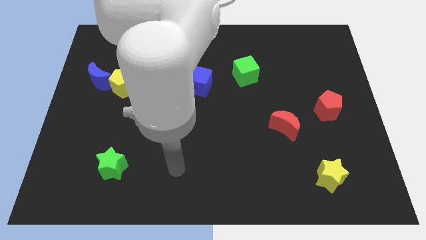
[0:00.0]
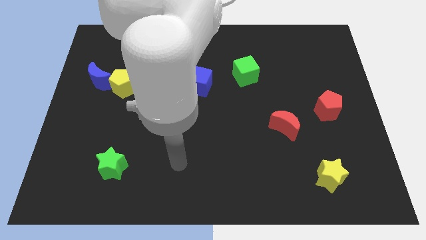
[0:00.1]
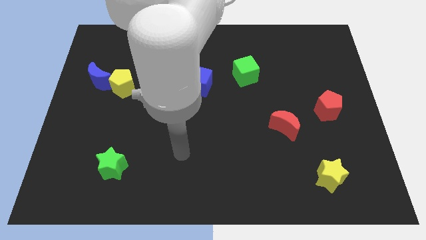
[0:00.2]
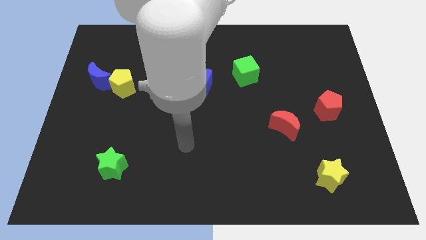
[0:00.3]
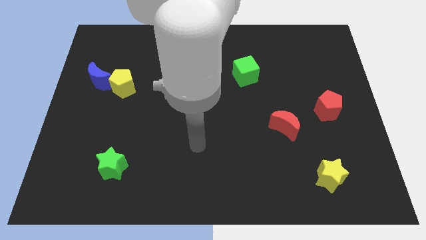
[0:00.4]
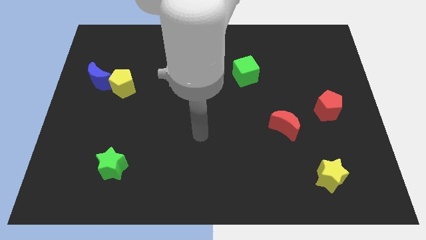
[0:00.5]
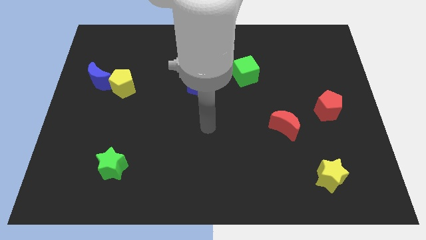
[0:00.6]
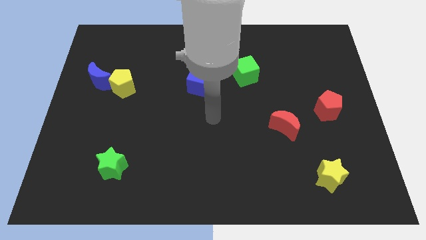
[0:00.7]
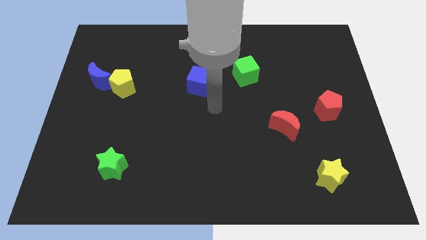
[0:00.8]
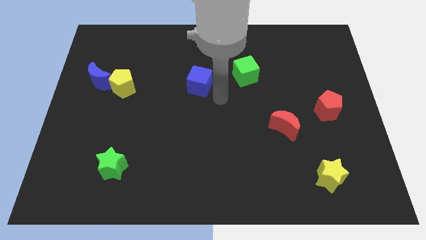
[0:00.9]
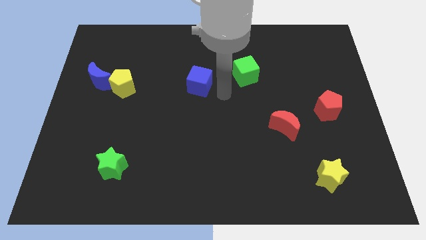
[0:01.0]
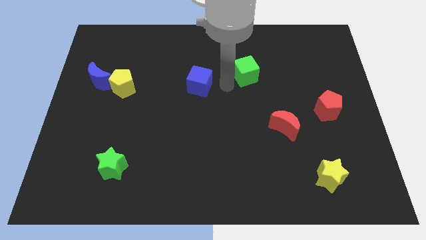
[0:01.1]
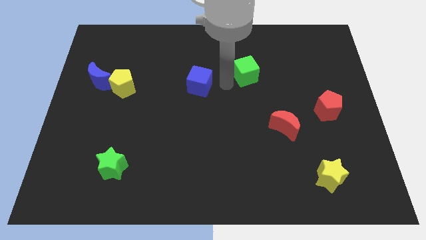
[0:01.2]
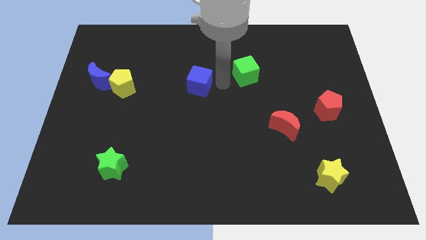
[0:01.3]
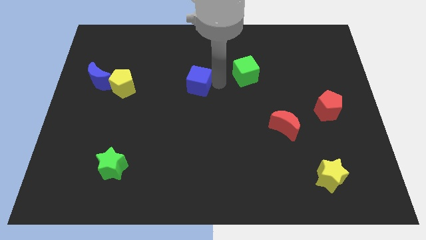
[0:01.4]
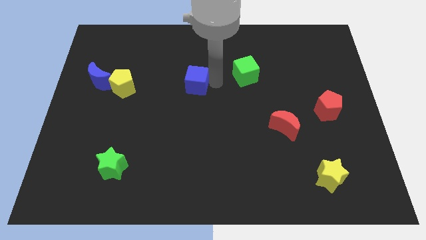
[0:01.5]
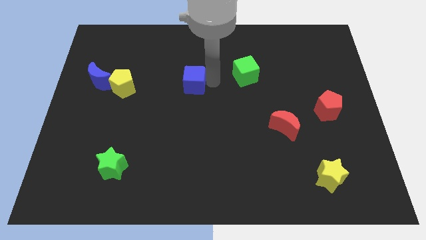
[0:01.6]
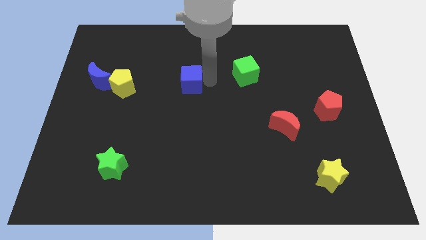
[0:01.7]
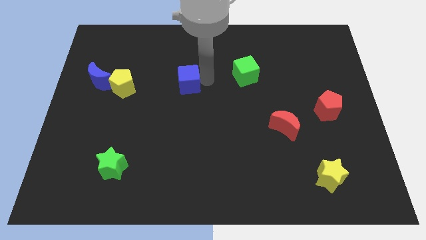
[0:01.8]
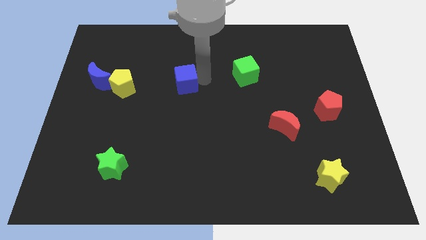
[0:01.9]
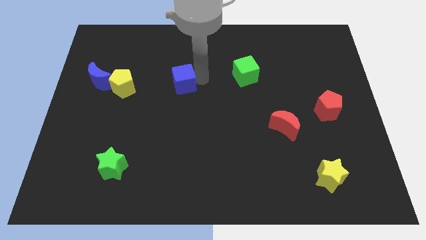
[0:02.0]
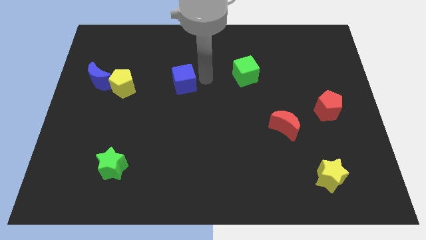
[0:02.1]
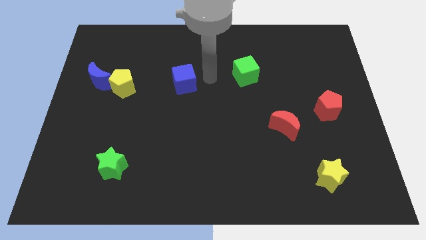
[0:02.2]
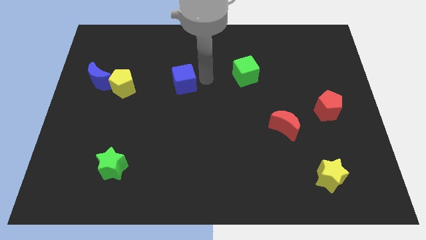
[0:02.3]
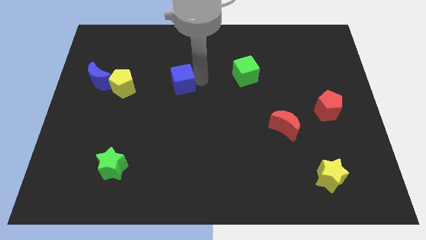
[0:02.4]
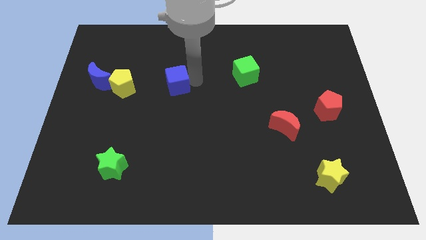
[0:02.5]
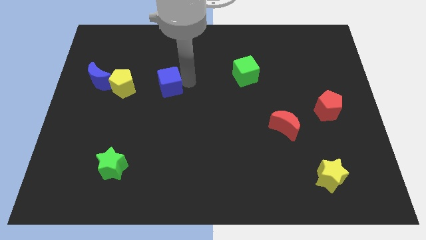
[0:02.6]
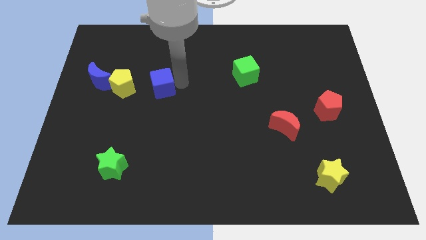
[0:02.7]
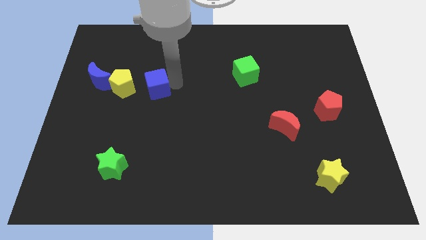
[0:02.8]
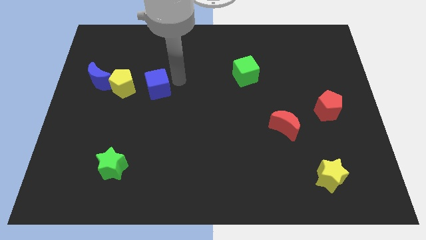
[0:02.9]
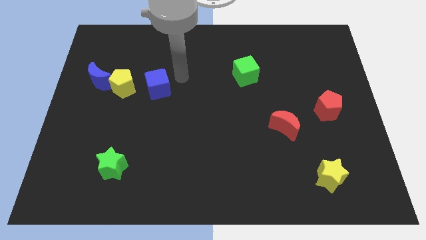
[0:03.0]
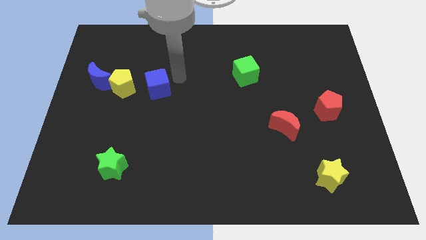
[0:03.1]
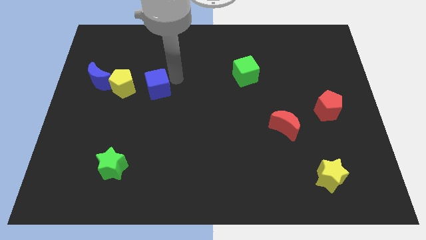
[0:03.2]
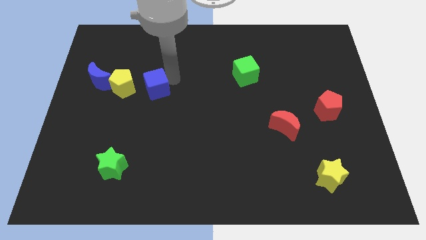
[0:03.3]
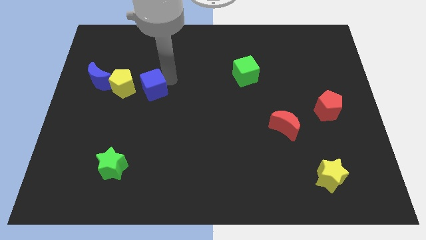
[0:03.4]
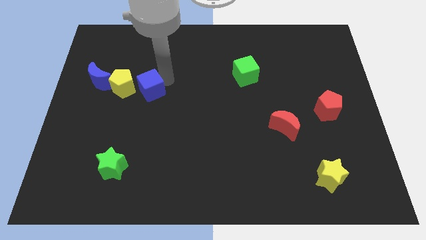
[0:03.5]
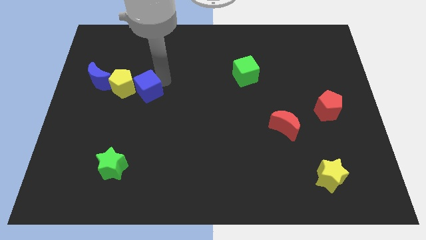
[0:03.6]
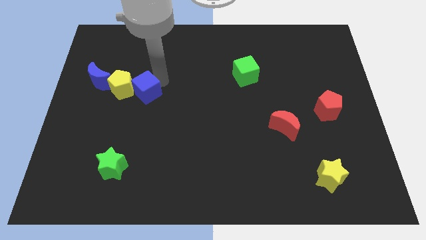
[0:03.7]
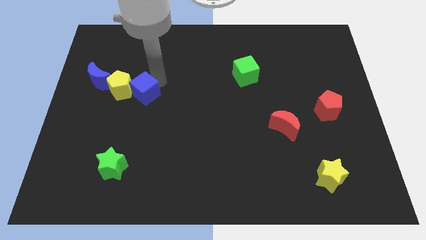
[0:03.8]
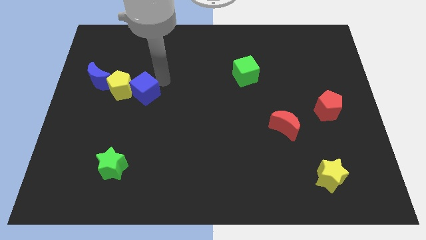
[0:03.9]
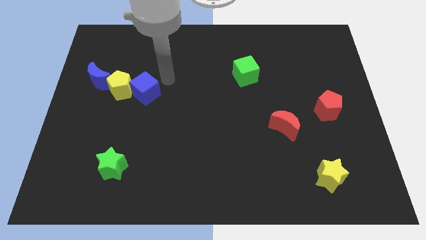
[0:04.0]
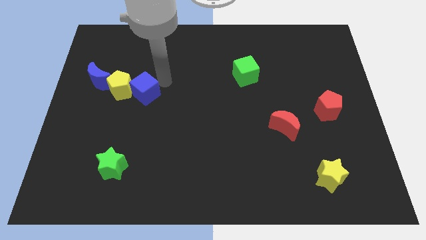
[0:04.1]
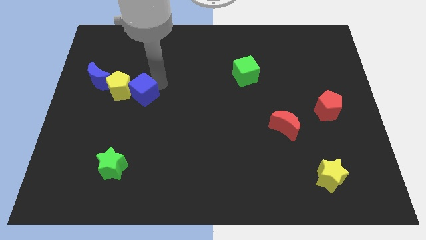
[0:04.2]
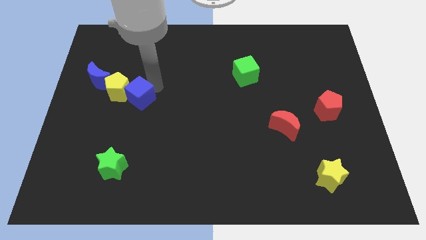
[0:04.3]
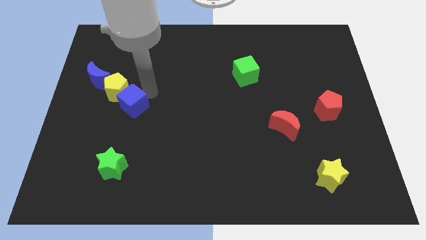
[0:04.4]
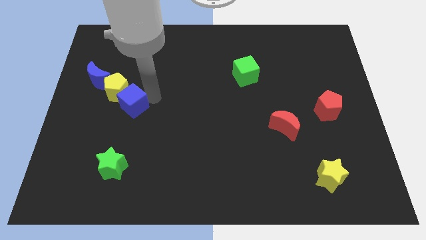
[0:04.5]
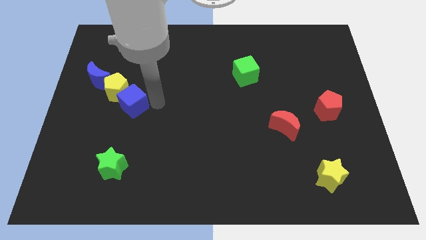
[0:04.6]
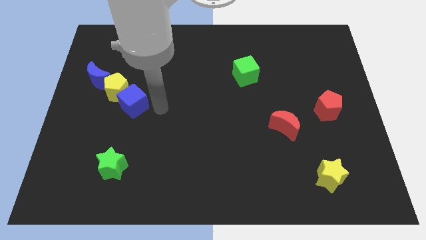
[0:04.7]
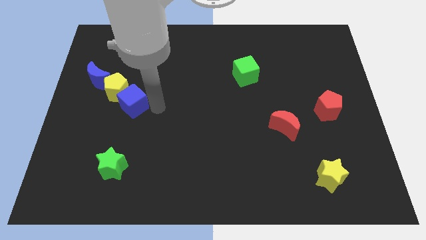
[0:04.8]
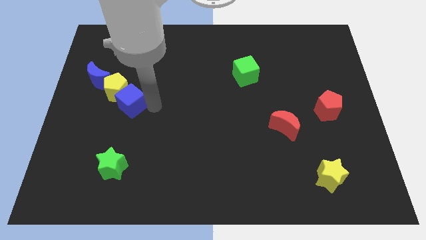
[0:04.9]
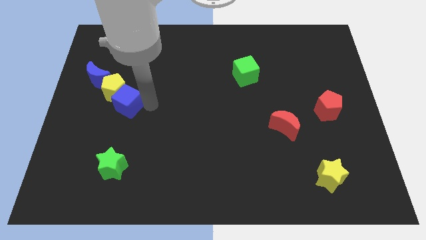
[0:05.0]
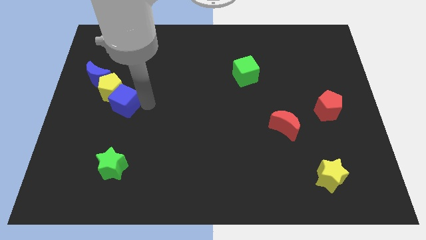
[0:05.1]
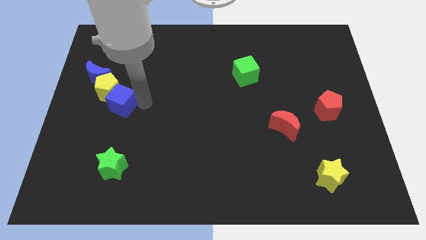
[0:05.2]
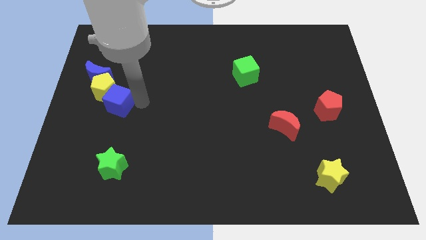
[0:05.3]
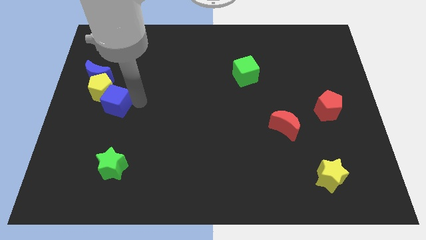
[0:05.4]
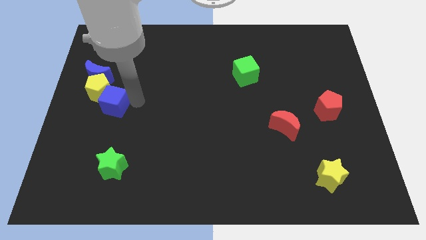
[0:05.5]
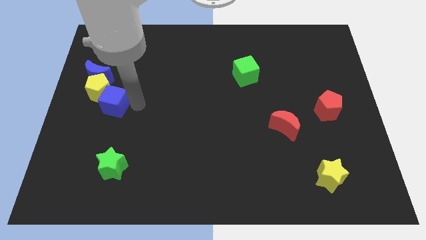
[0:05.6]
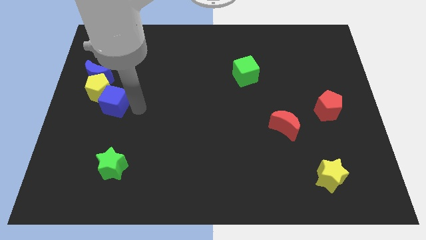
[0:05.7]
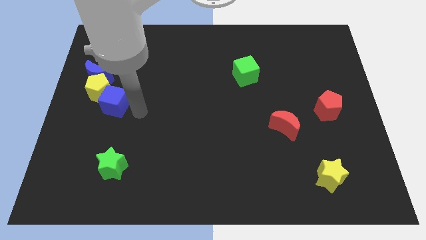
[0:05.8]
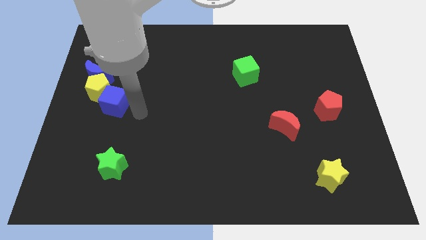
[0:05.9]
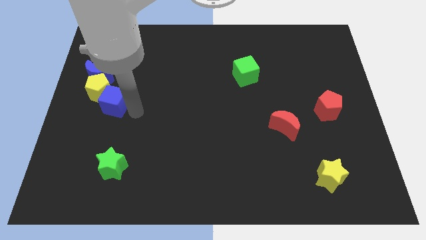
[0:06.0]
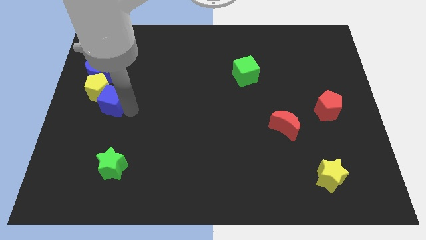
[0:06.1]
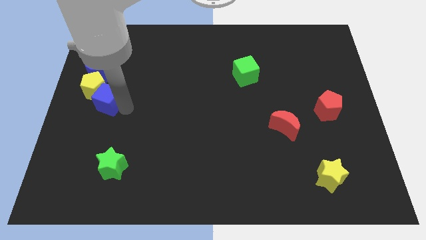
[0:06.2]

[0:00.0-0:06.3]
put the blue cube to the center left
